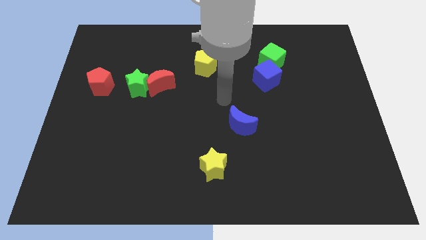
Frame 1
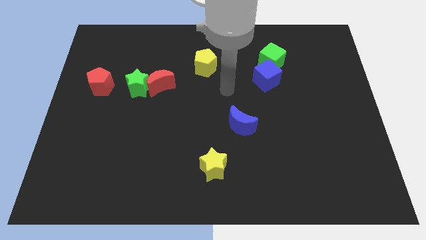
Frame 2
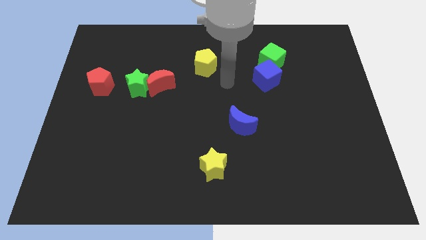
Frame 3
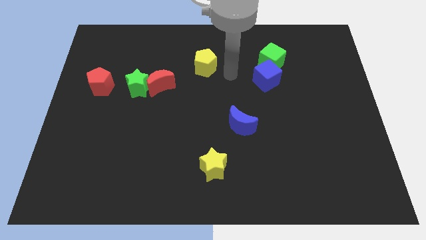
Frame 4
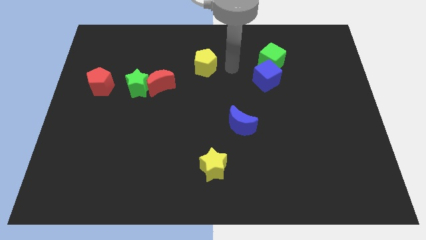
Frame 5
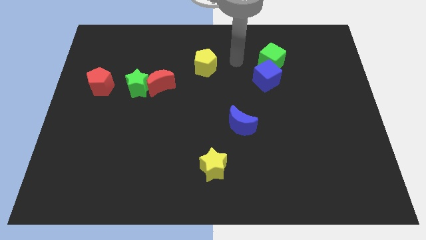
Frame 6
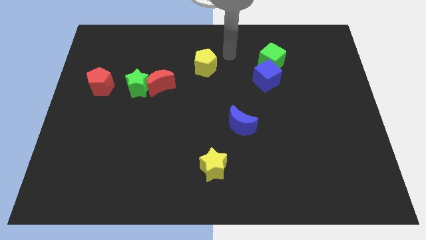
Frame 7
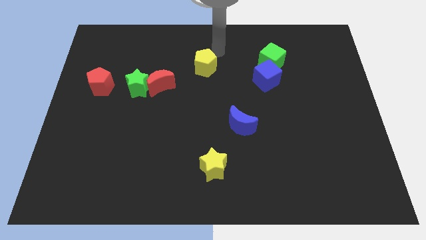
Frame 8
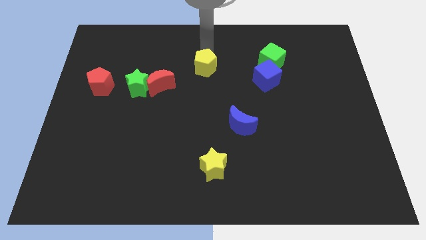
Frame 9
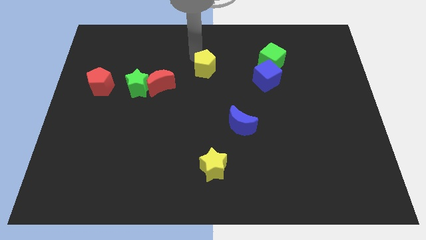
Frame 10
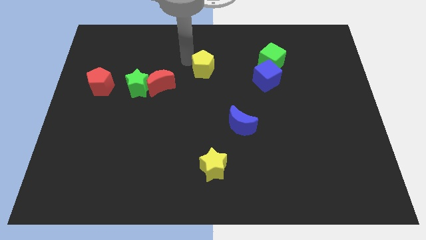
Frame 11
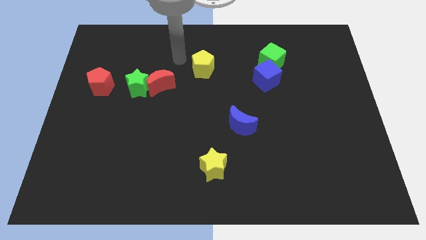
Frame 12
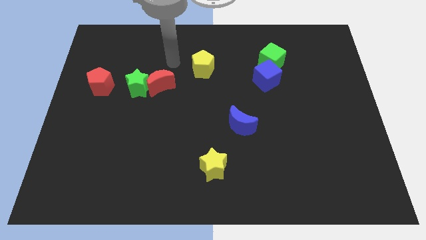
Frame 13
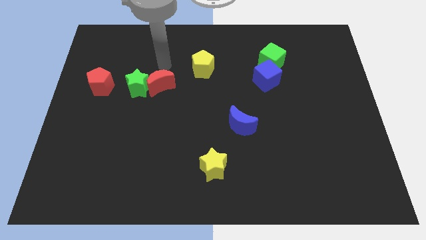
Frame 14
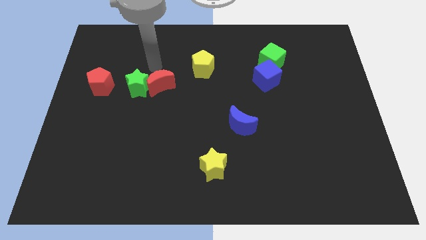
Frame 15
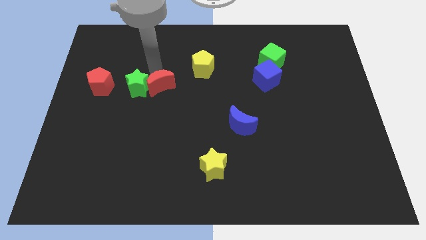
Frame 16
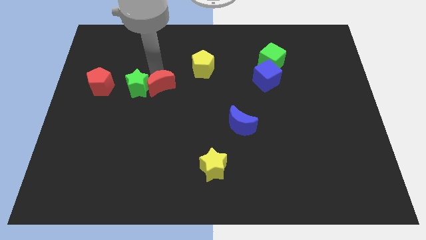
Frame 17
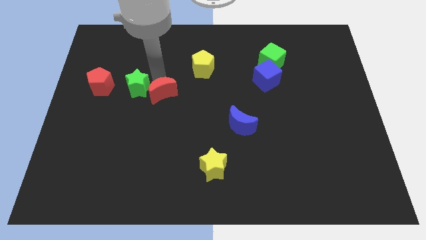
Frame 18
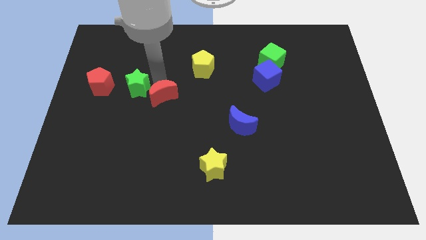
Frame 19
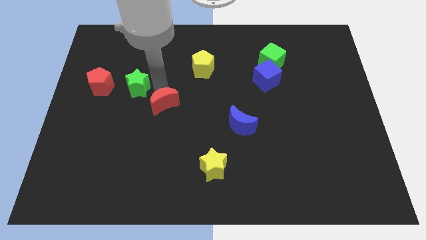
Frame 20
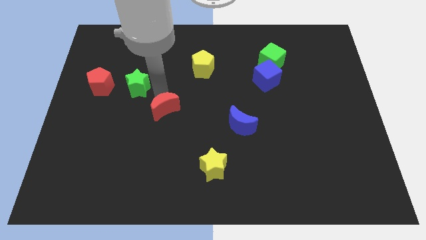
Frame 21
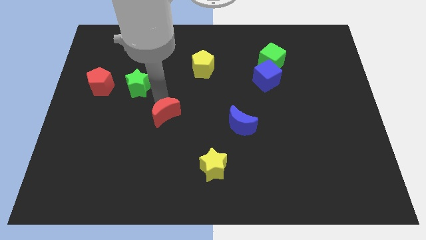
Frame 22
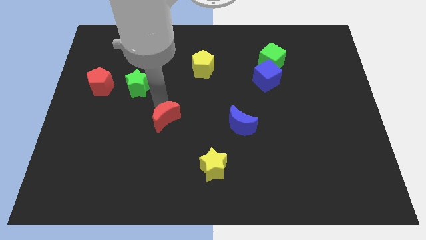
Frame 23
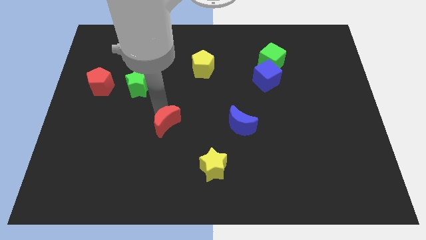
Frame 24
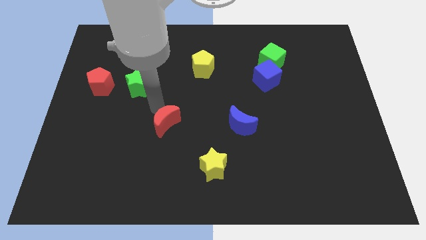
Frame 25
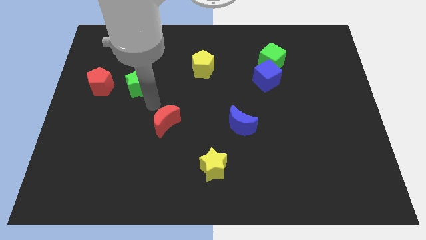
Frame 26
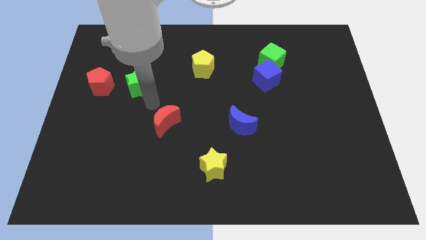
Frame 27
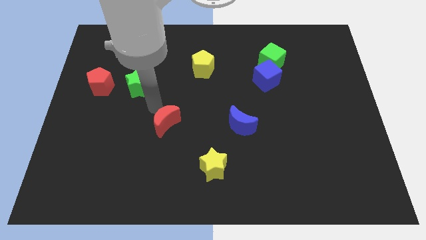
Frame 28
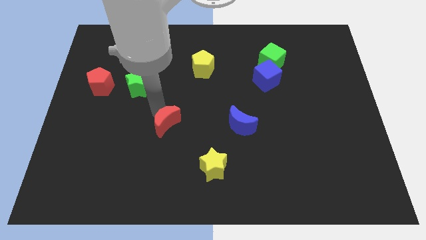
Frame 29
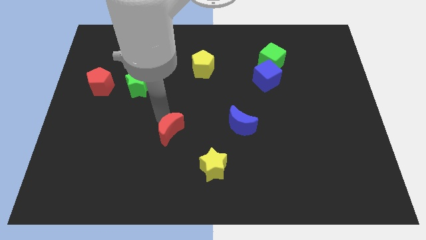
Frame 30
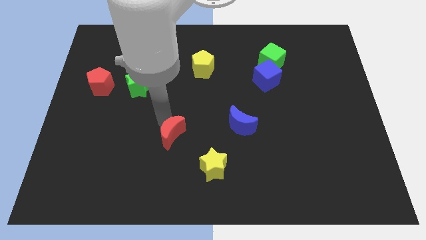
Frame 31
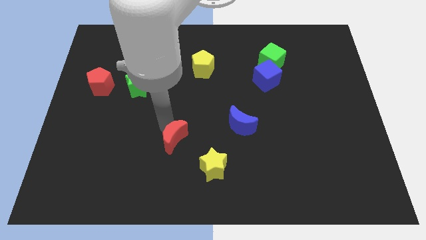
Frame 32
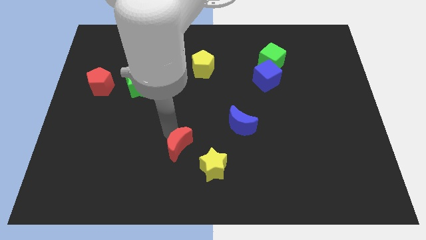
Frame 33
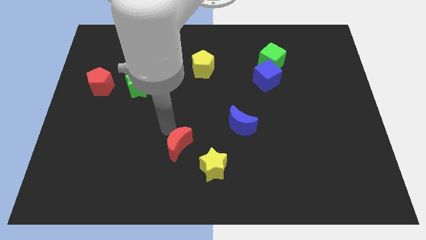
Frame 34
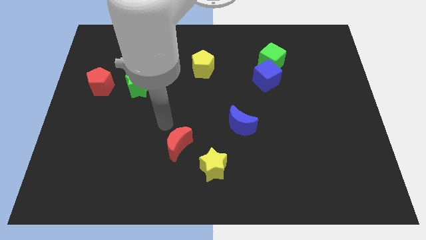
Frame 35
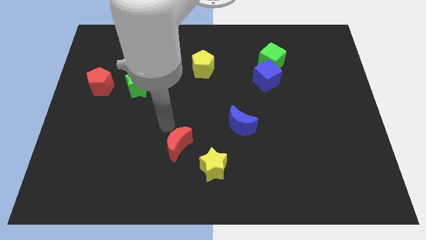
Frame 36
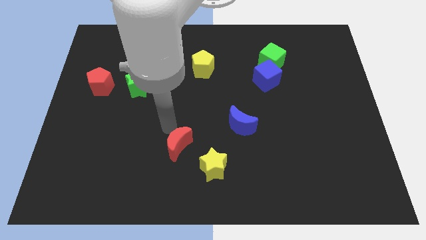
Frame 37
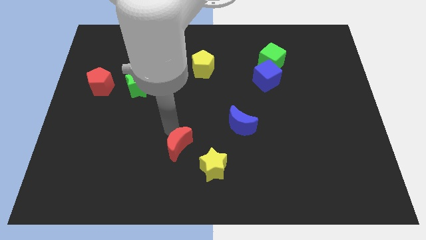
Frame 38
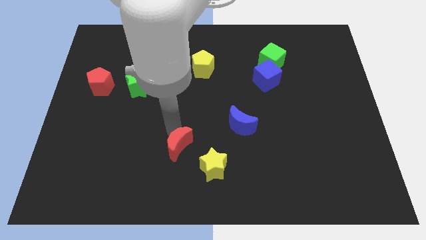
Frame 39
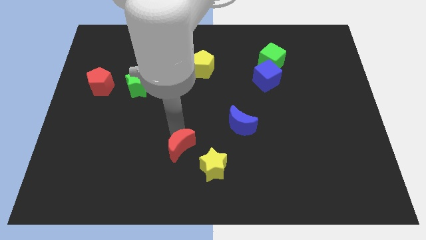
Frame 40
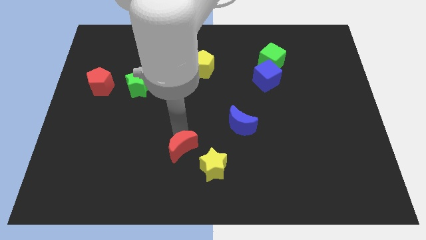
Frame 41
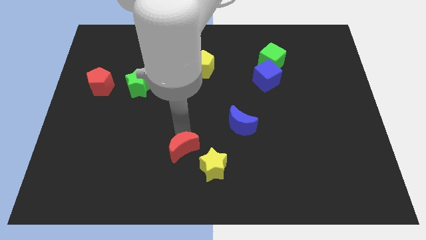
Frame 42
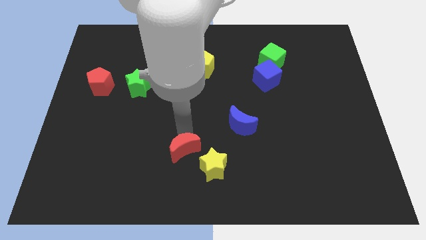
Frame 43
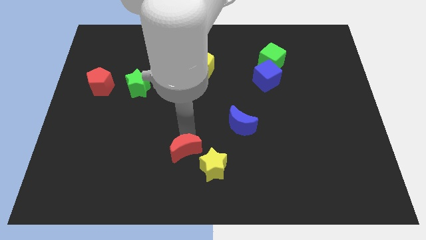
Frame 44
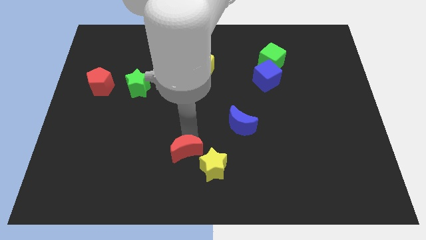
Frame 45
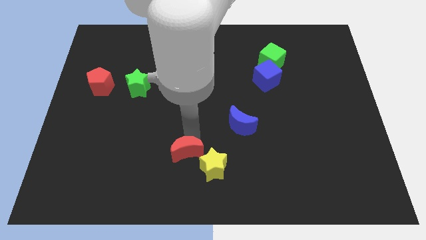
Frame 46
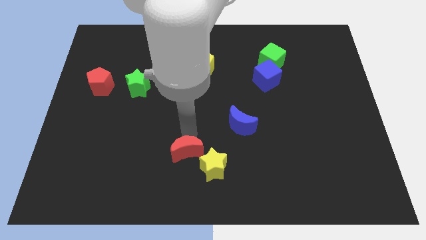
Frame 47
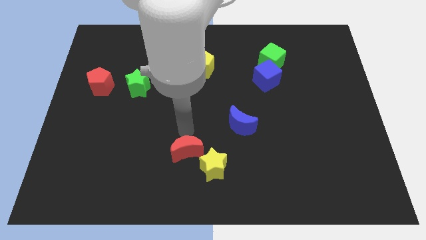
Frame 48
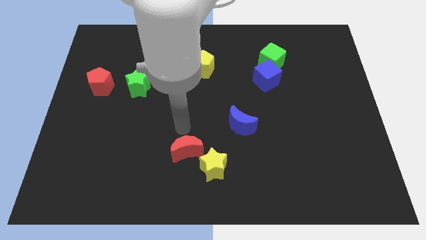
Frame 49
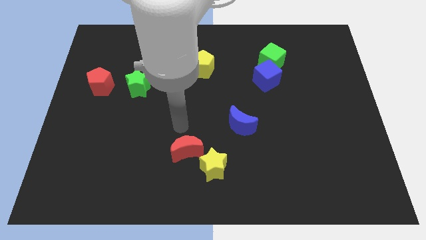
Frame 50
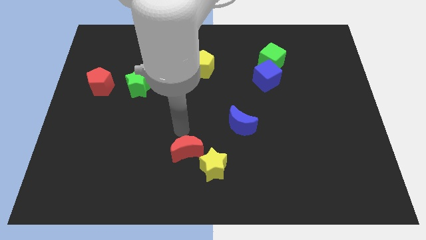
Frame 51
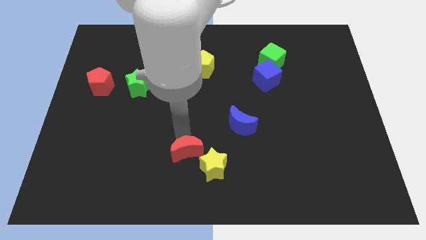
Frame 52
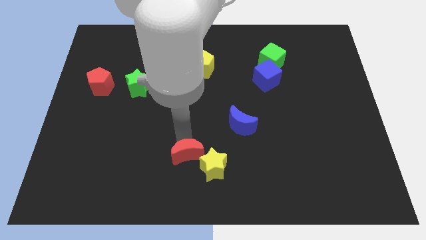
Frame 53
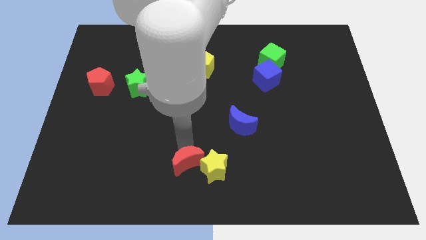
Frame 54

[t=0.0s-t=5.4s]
slide the red moon to the bottom side

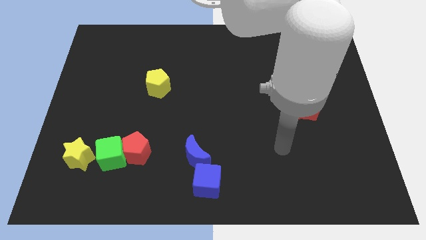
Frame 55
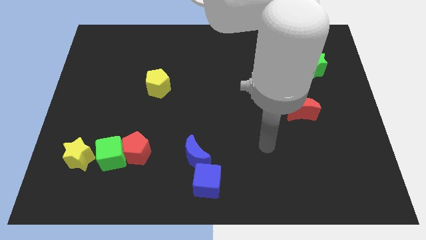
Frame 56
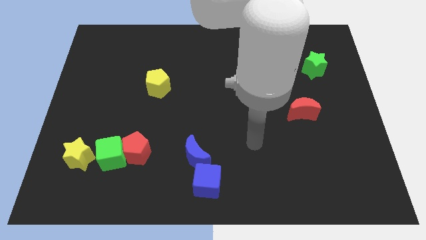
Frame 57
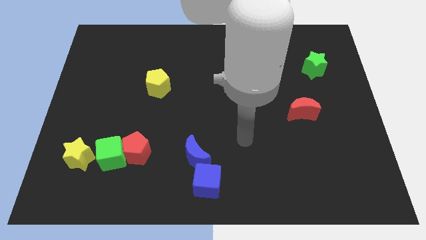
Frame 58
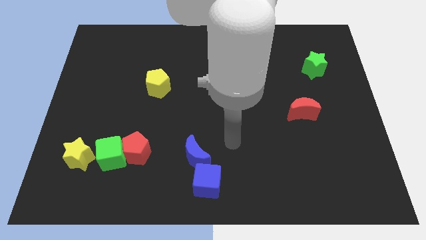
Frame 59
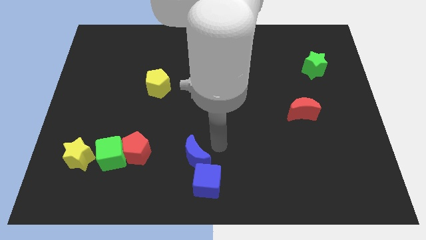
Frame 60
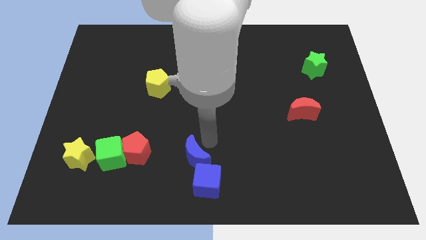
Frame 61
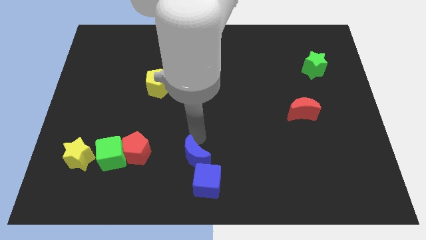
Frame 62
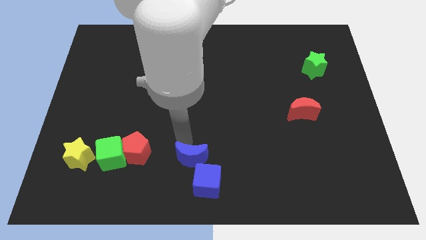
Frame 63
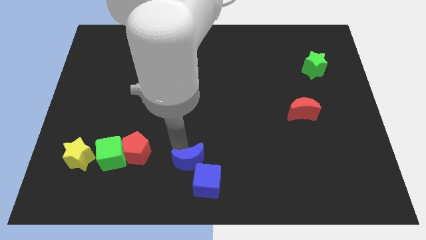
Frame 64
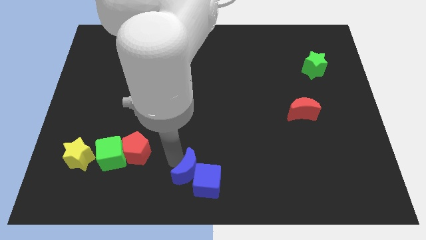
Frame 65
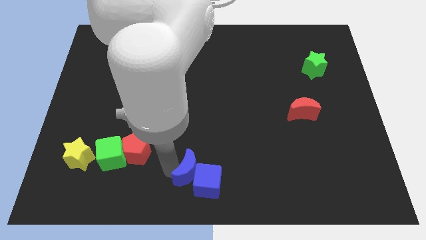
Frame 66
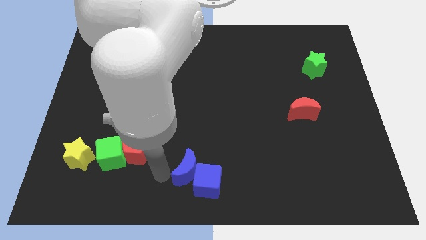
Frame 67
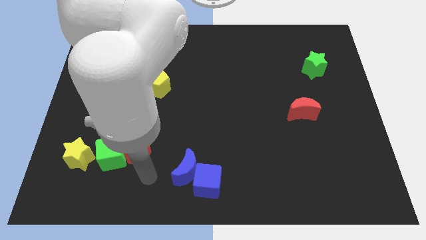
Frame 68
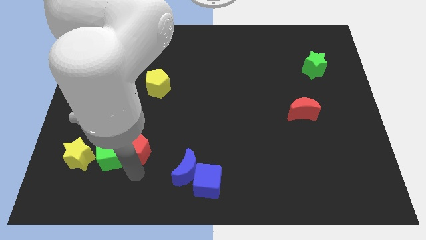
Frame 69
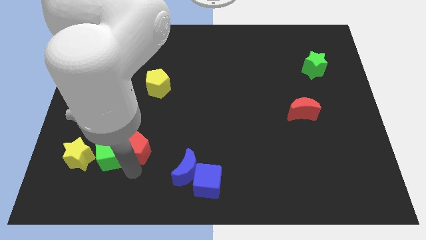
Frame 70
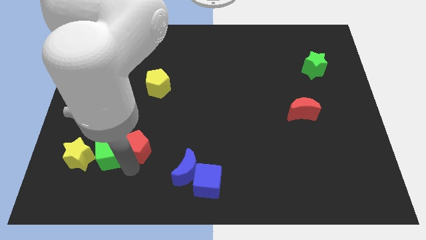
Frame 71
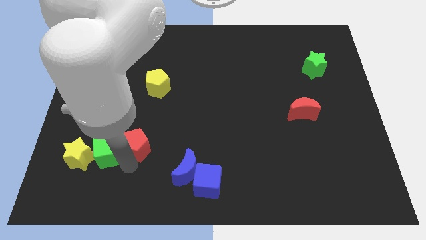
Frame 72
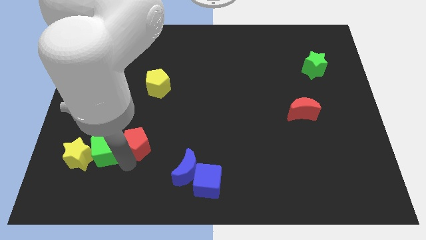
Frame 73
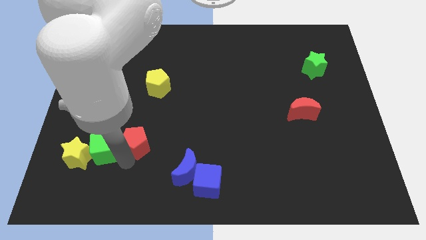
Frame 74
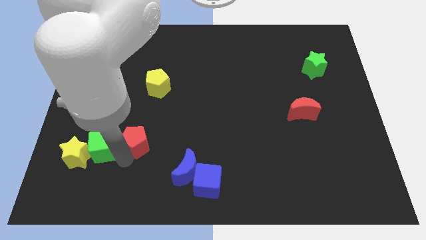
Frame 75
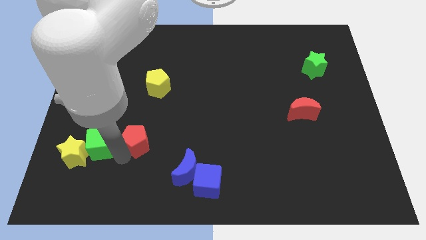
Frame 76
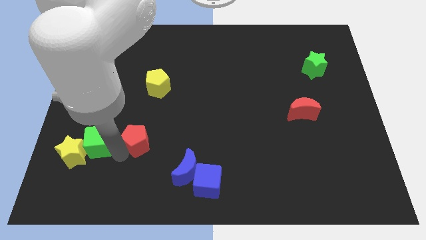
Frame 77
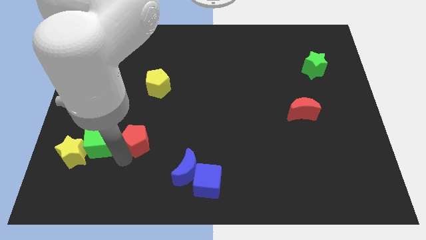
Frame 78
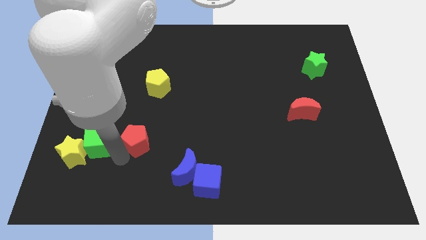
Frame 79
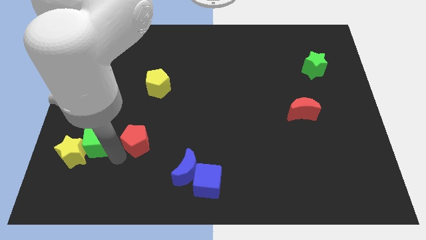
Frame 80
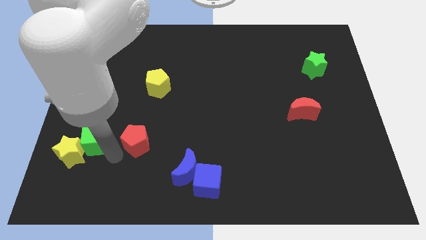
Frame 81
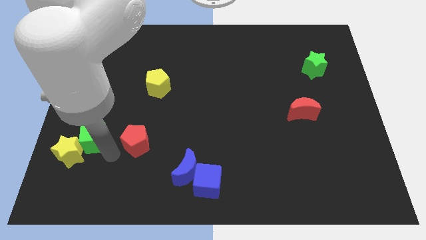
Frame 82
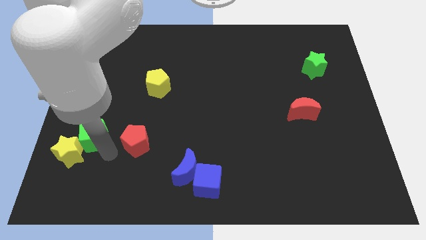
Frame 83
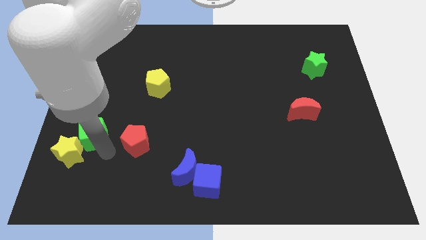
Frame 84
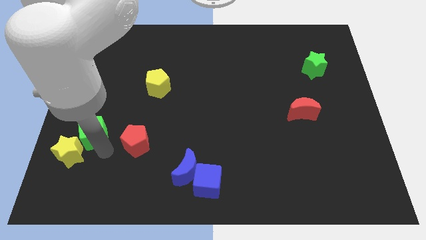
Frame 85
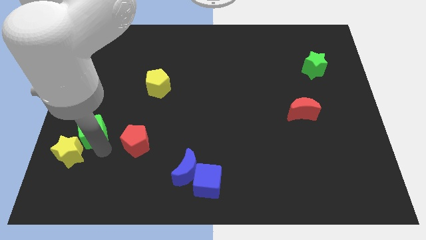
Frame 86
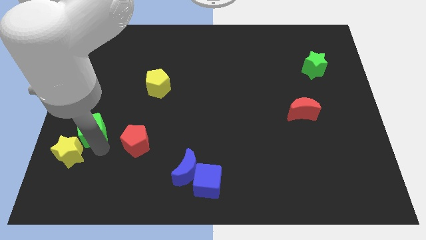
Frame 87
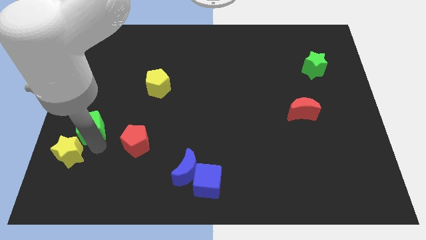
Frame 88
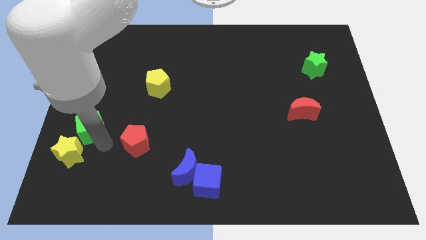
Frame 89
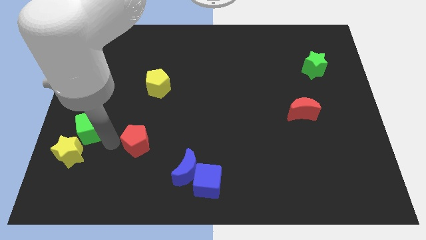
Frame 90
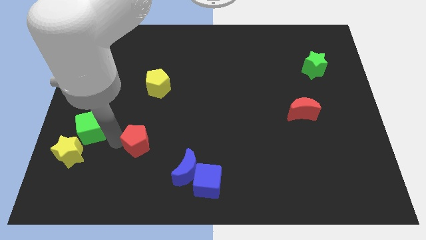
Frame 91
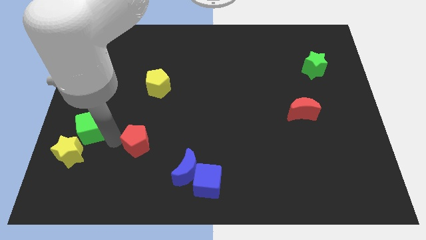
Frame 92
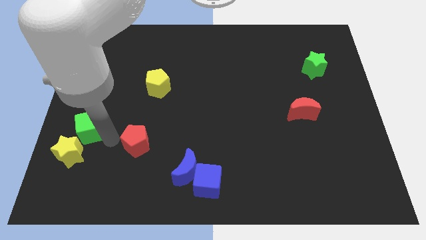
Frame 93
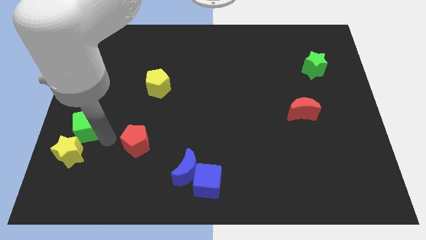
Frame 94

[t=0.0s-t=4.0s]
put the green cube to the left side
